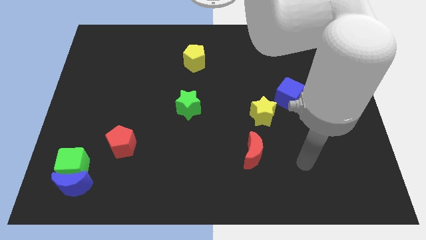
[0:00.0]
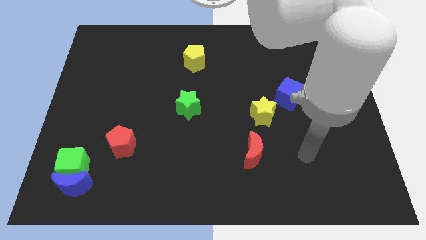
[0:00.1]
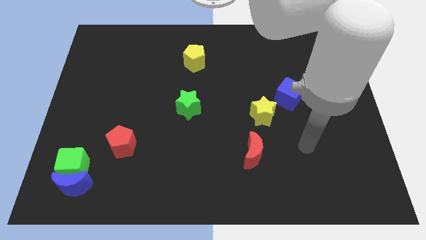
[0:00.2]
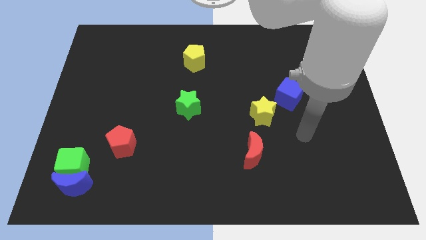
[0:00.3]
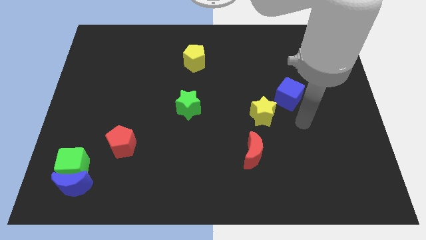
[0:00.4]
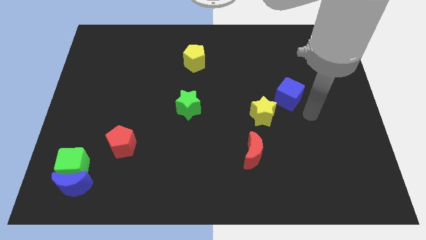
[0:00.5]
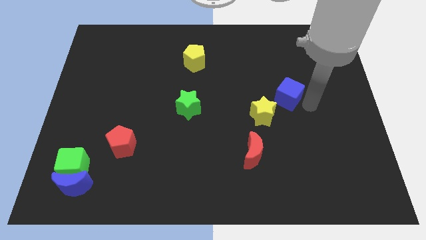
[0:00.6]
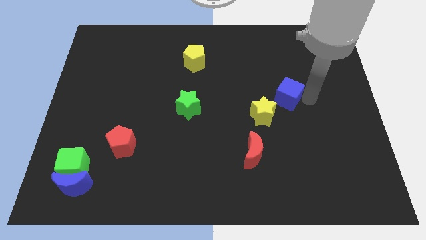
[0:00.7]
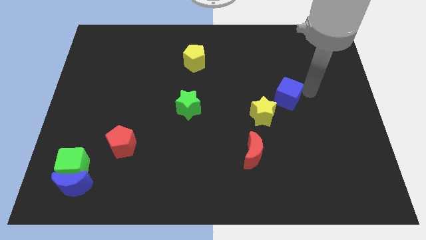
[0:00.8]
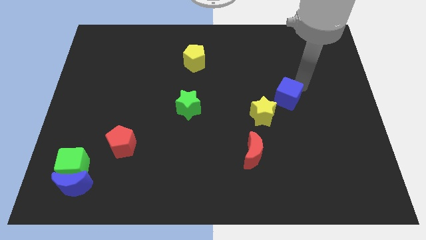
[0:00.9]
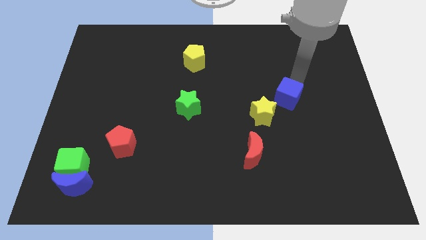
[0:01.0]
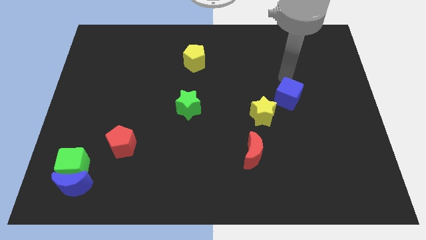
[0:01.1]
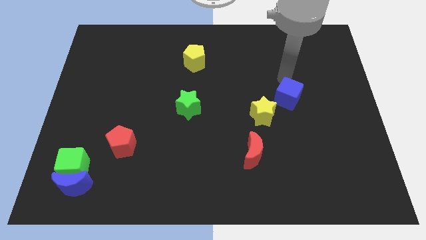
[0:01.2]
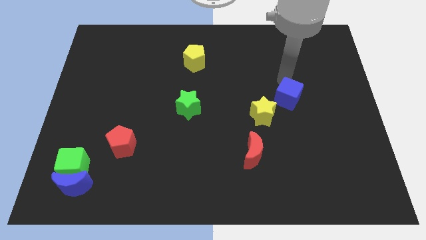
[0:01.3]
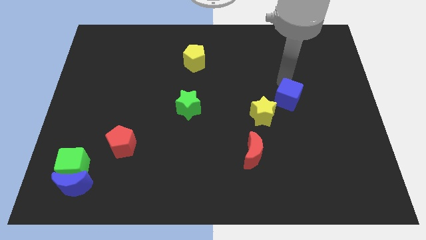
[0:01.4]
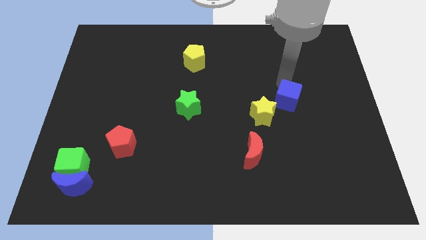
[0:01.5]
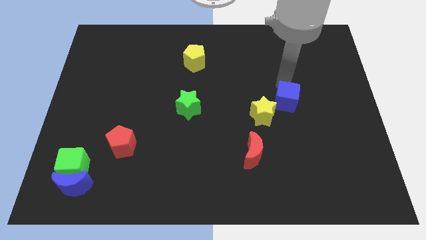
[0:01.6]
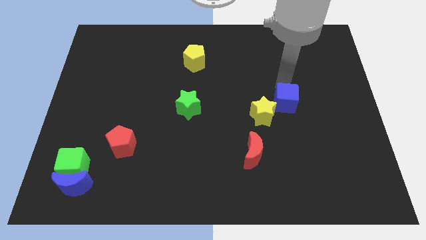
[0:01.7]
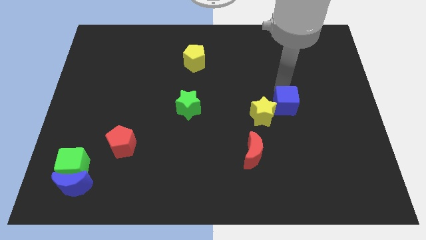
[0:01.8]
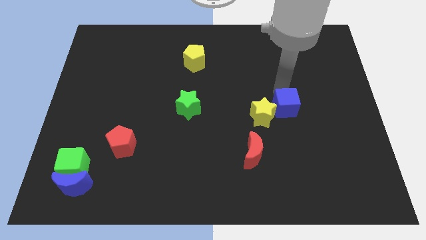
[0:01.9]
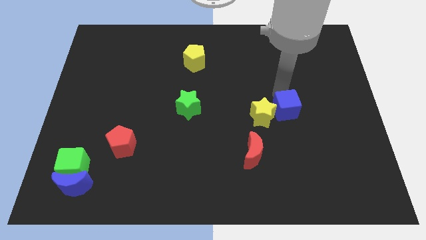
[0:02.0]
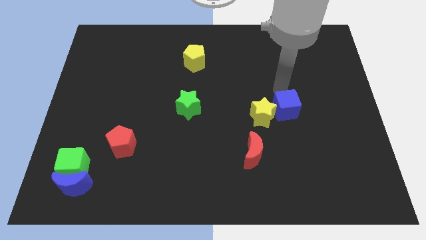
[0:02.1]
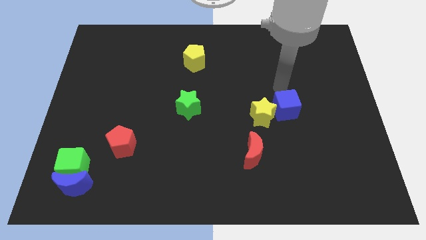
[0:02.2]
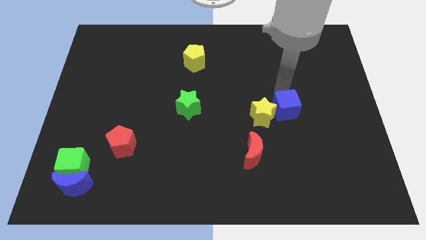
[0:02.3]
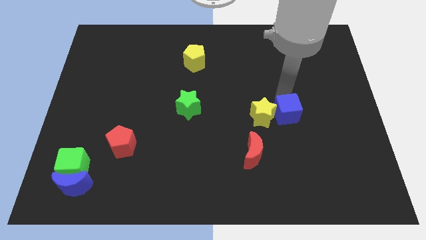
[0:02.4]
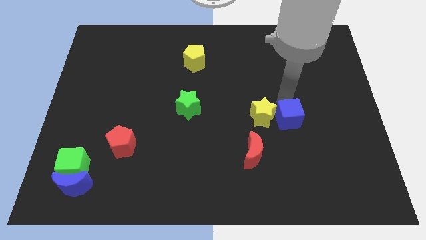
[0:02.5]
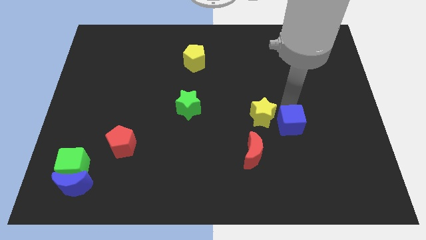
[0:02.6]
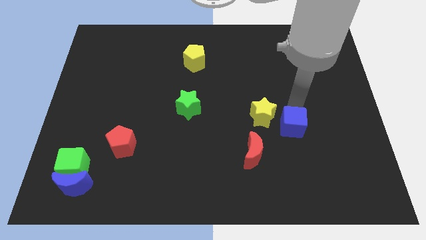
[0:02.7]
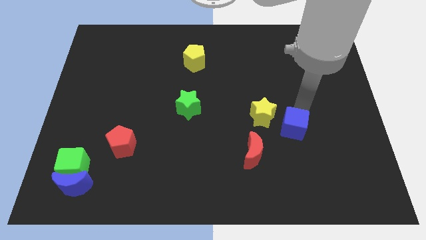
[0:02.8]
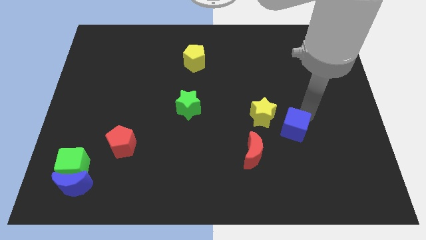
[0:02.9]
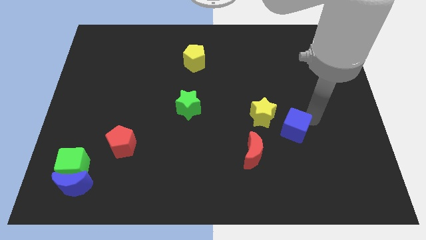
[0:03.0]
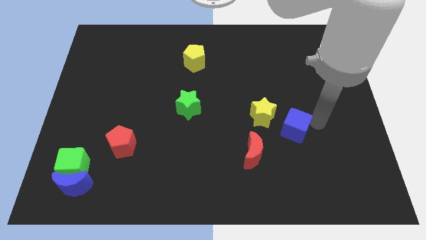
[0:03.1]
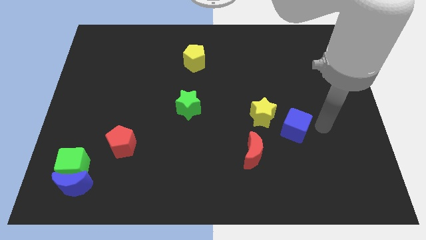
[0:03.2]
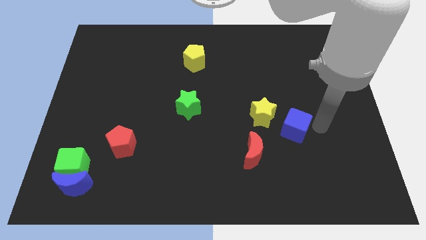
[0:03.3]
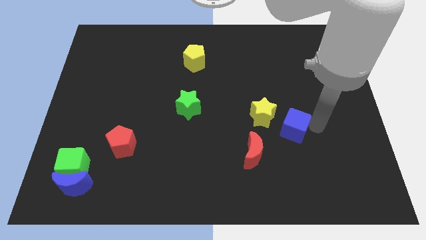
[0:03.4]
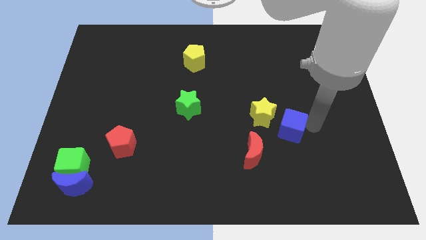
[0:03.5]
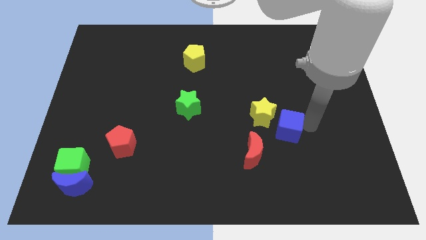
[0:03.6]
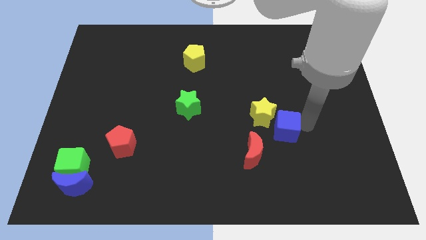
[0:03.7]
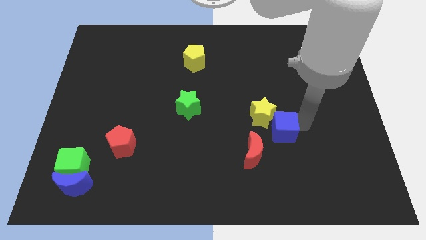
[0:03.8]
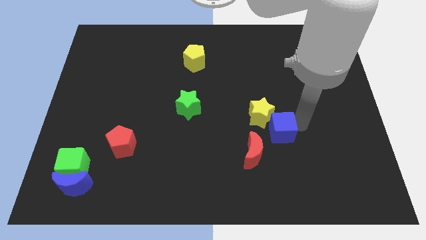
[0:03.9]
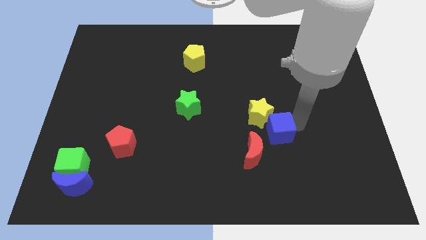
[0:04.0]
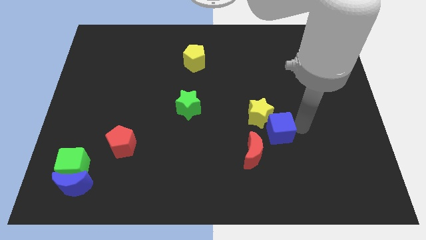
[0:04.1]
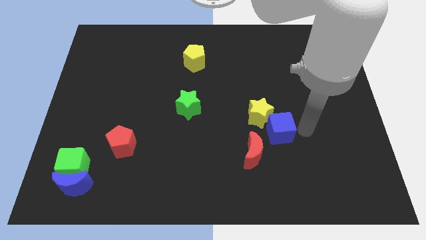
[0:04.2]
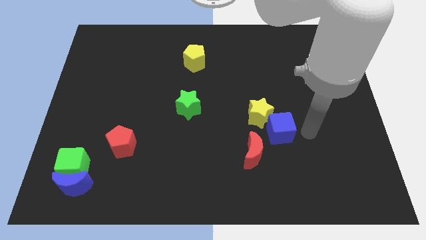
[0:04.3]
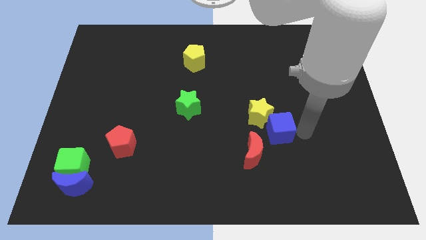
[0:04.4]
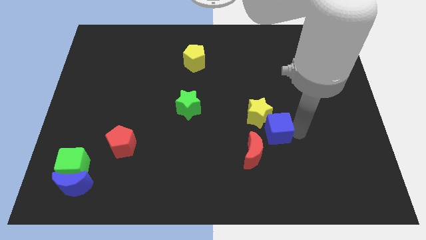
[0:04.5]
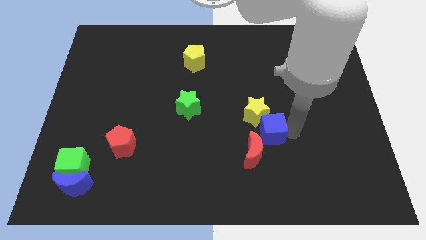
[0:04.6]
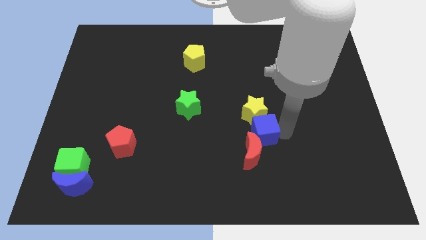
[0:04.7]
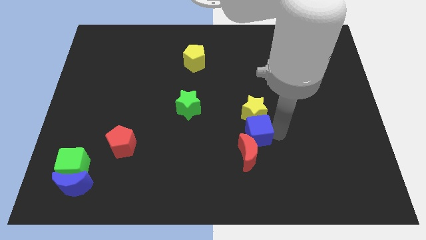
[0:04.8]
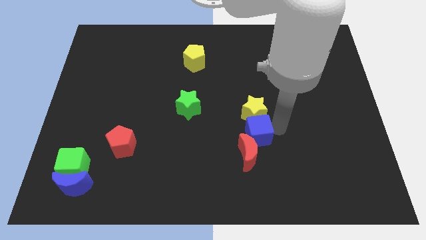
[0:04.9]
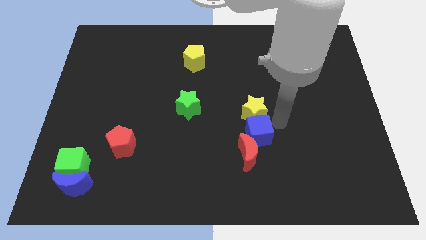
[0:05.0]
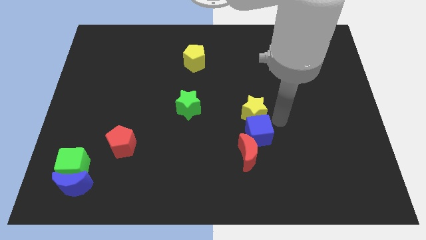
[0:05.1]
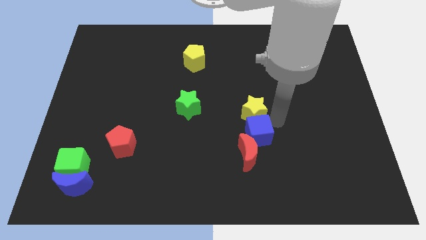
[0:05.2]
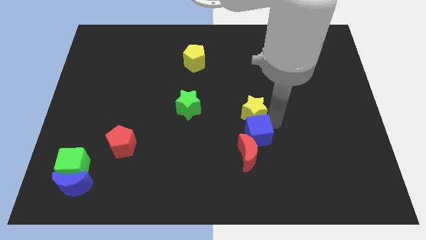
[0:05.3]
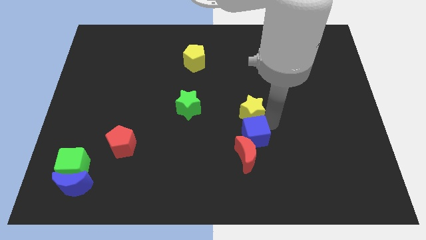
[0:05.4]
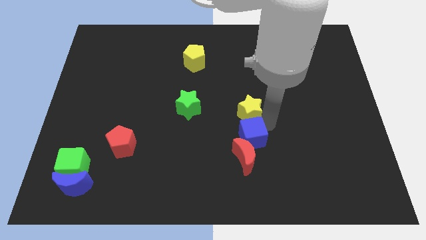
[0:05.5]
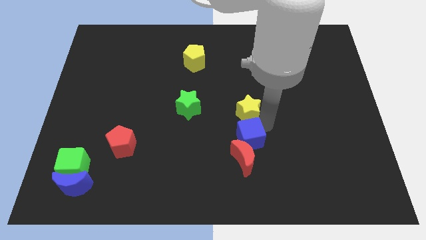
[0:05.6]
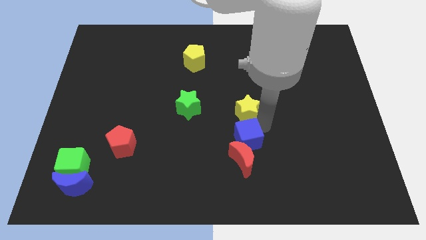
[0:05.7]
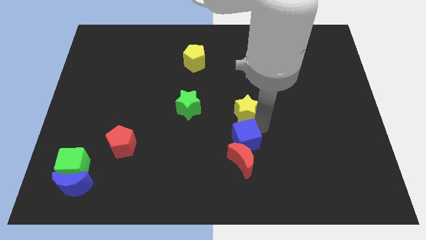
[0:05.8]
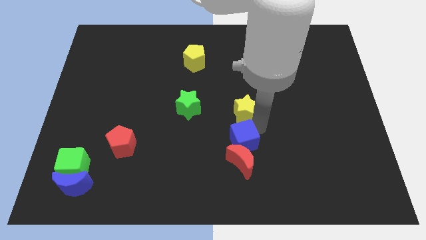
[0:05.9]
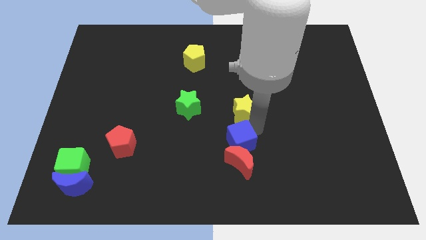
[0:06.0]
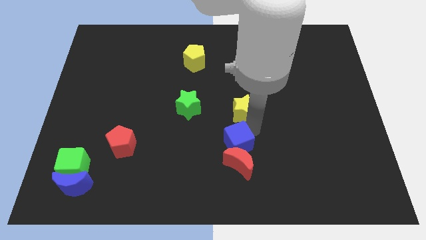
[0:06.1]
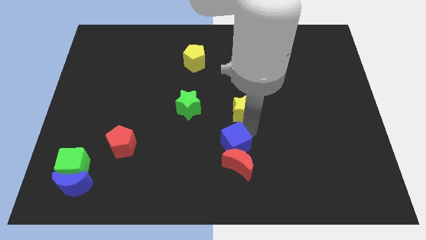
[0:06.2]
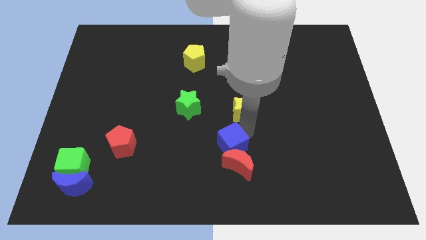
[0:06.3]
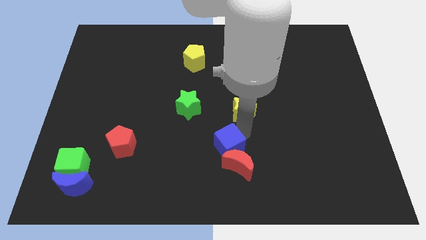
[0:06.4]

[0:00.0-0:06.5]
push the blue cube diagonally down and left

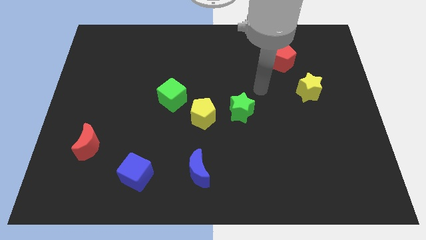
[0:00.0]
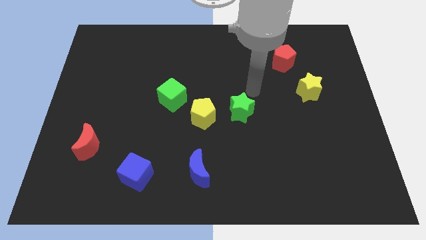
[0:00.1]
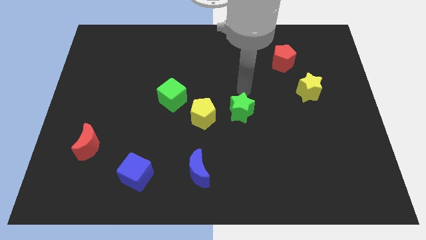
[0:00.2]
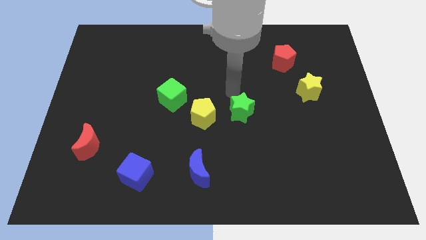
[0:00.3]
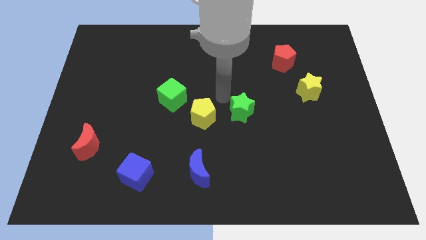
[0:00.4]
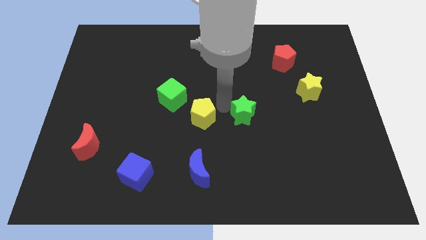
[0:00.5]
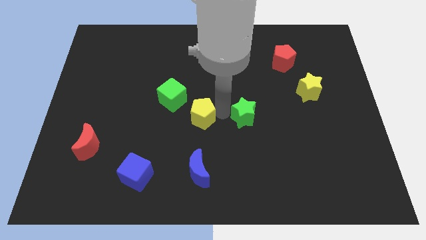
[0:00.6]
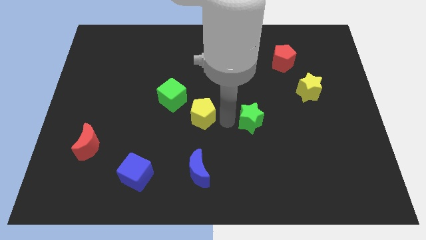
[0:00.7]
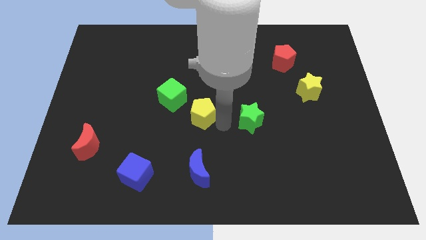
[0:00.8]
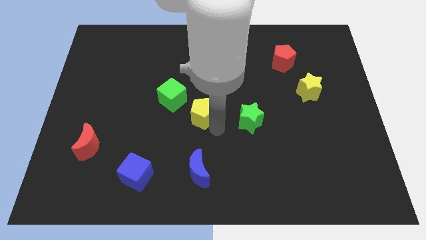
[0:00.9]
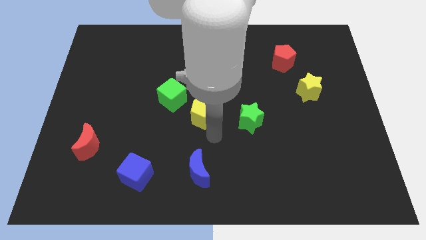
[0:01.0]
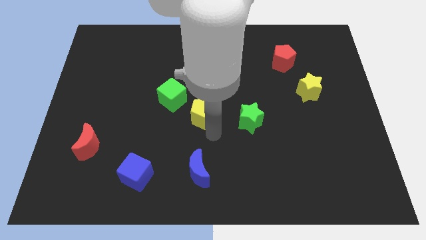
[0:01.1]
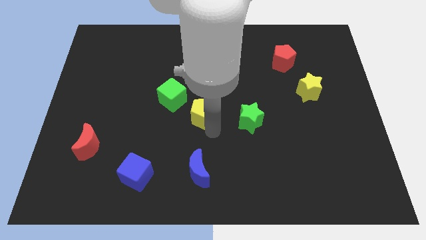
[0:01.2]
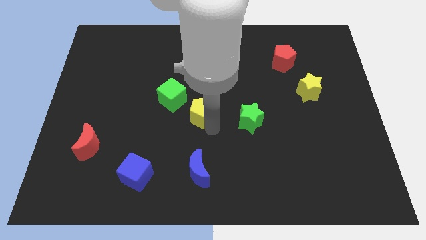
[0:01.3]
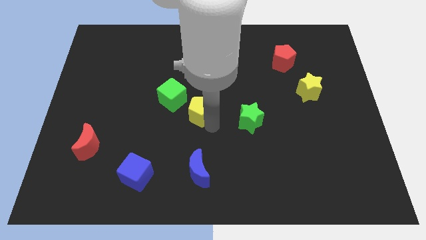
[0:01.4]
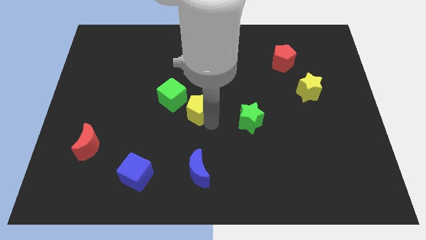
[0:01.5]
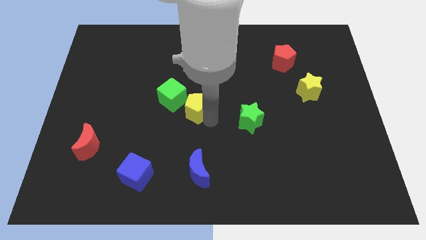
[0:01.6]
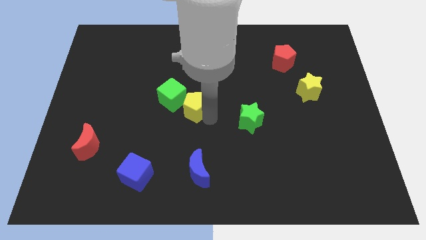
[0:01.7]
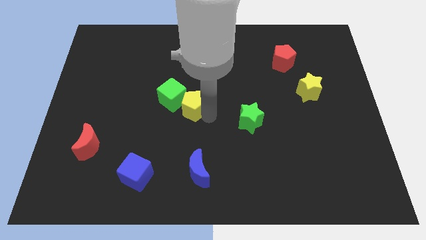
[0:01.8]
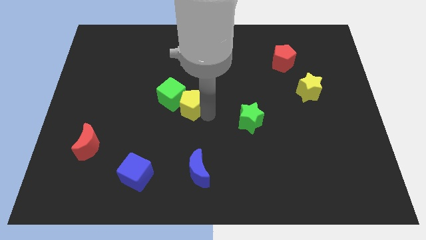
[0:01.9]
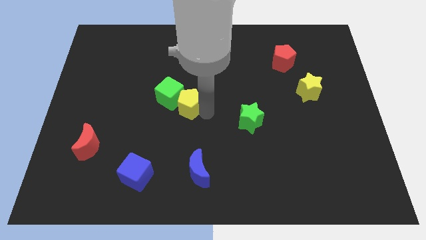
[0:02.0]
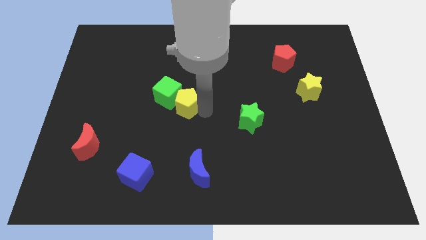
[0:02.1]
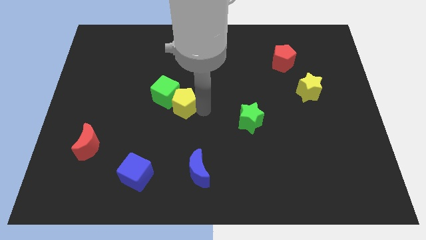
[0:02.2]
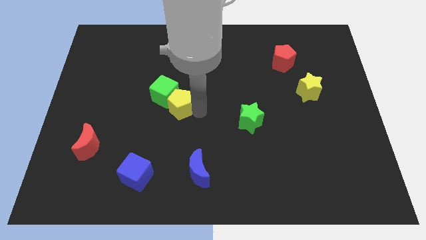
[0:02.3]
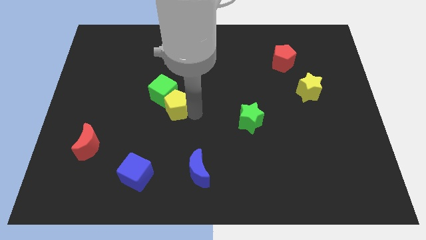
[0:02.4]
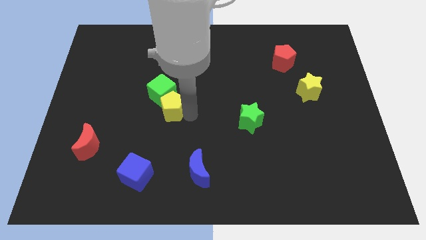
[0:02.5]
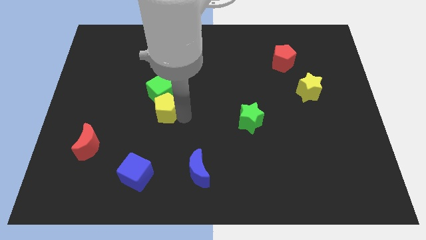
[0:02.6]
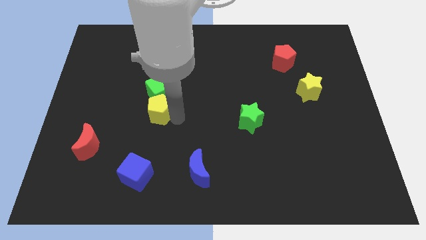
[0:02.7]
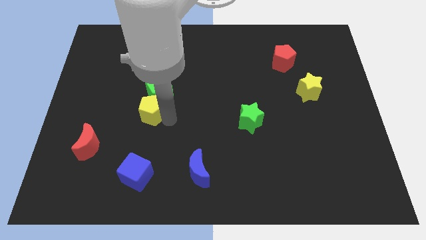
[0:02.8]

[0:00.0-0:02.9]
slightly push the yellow pentagon diagonally up and left
